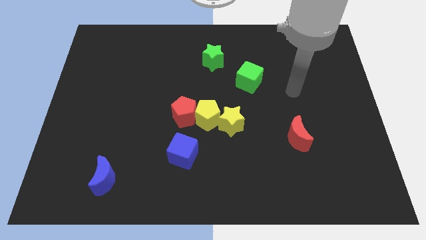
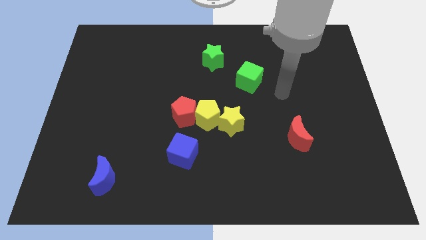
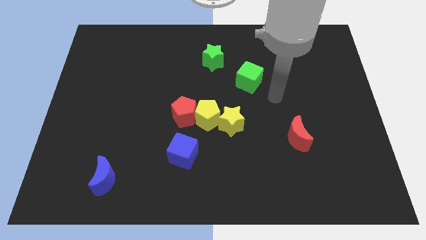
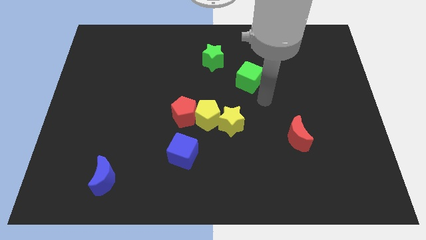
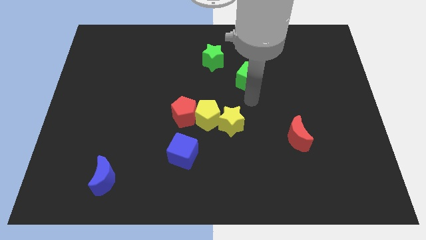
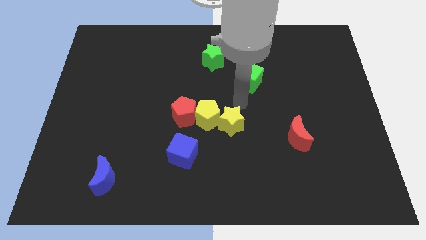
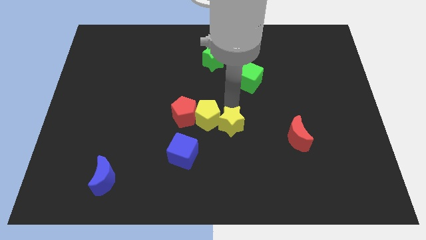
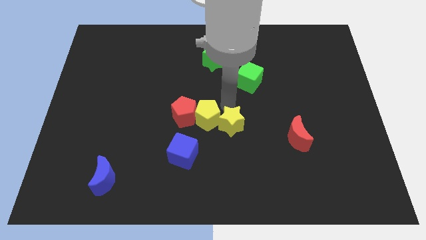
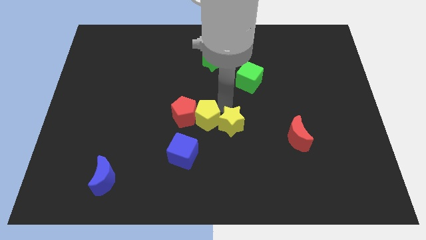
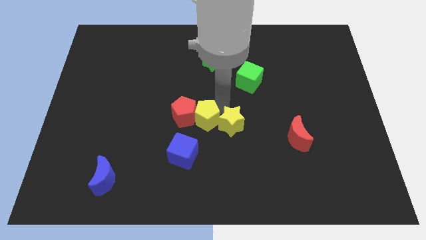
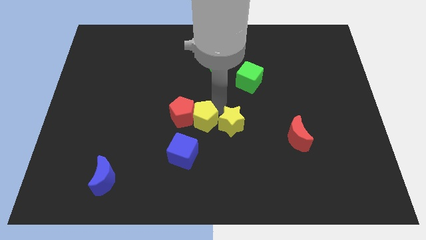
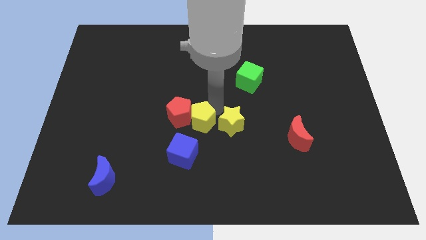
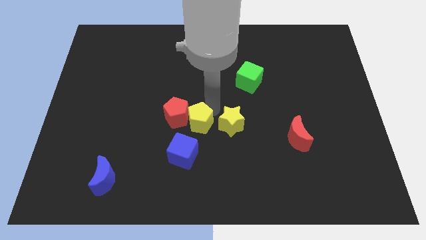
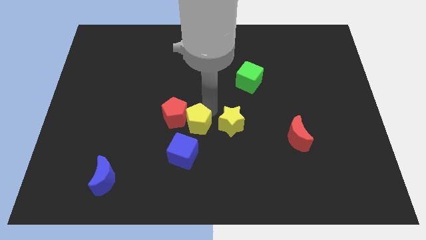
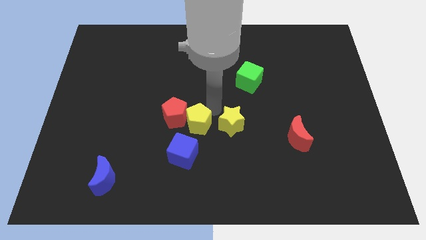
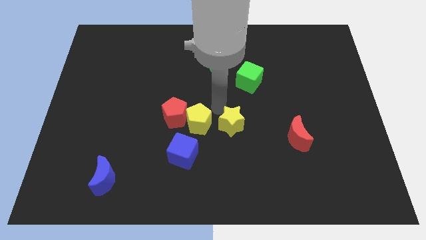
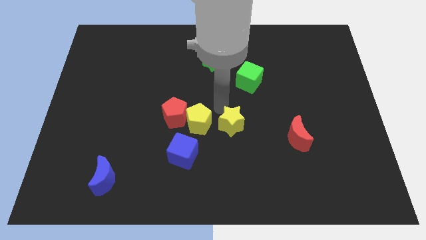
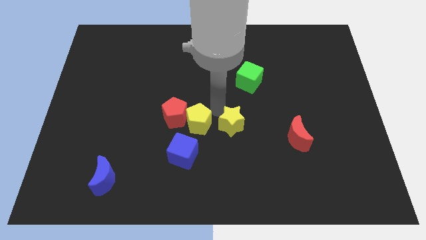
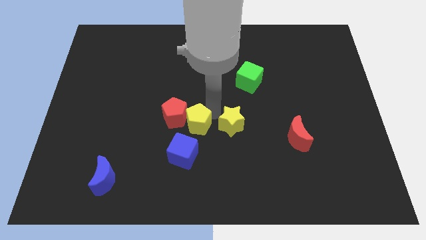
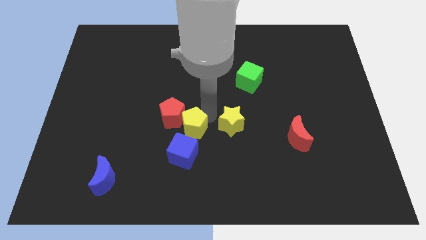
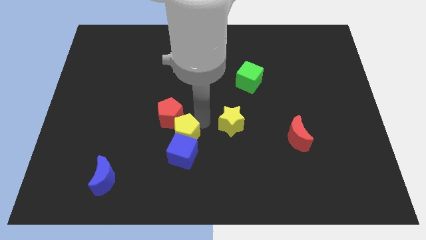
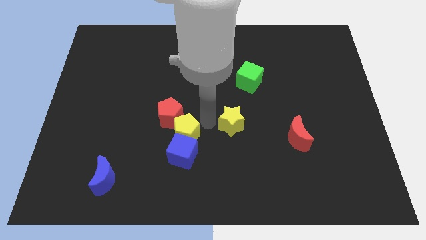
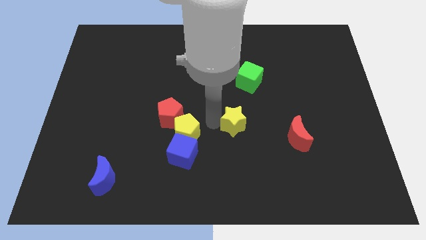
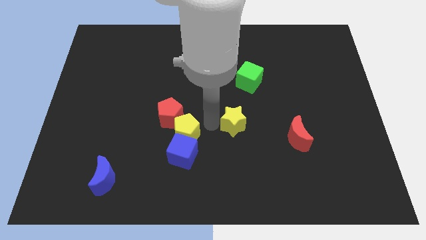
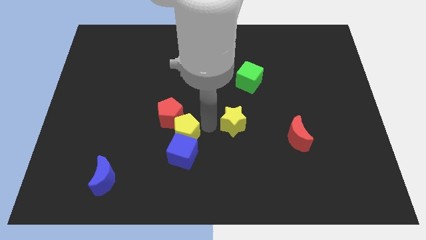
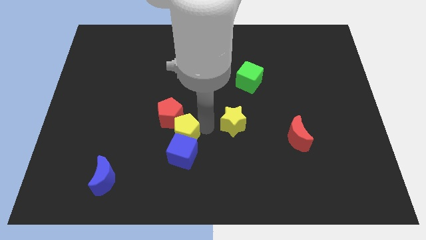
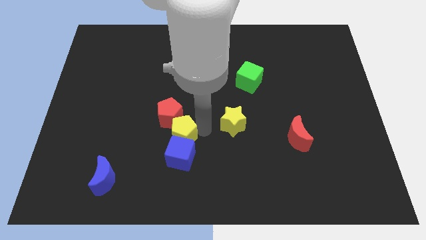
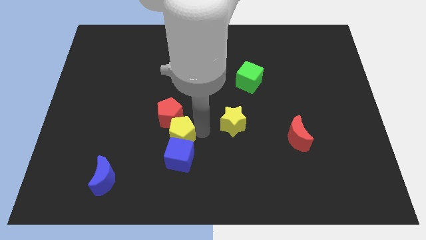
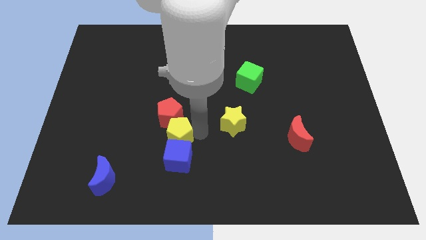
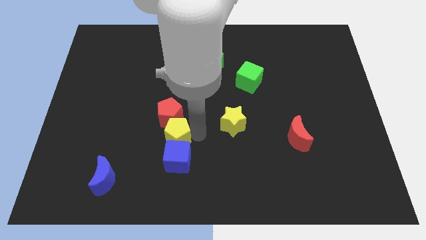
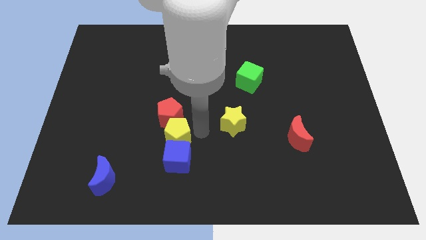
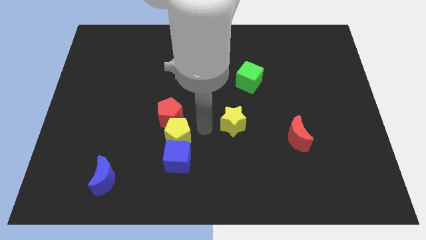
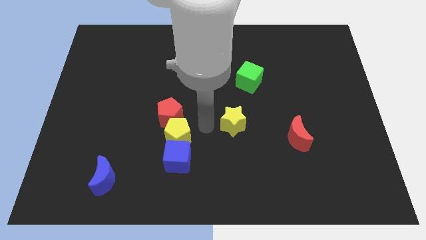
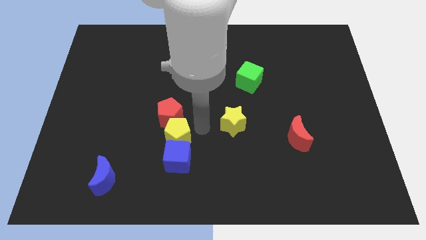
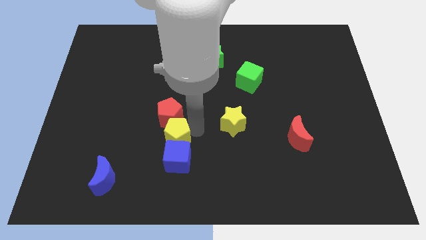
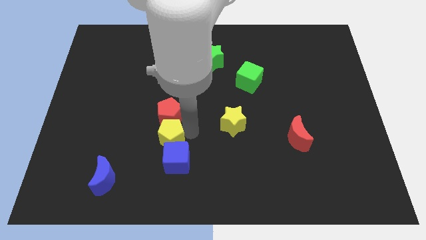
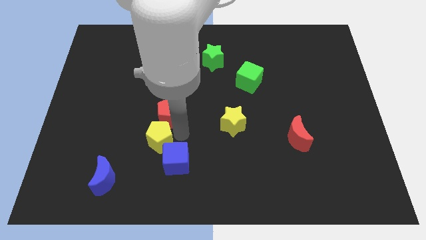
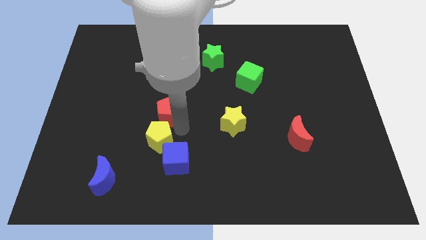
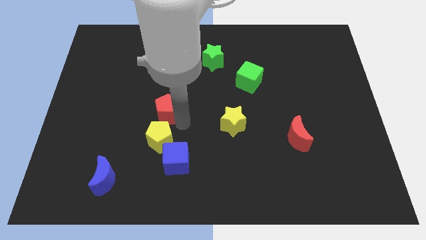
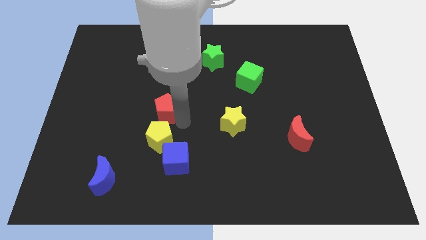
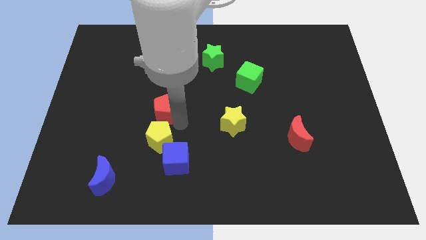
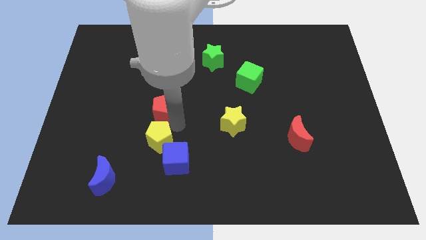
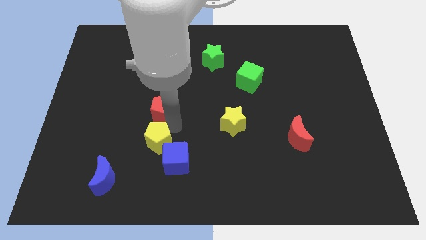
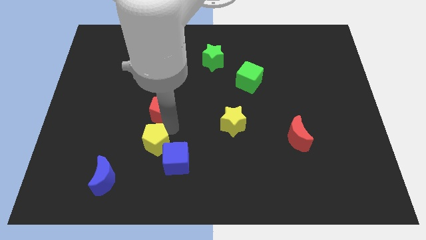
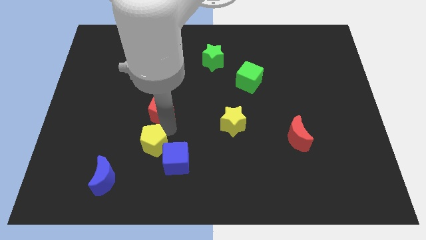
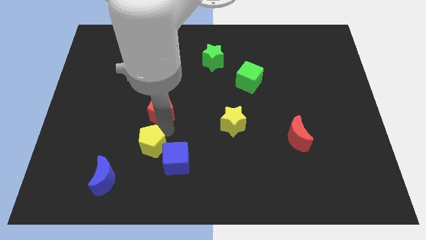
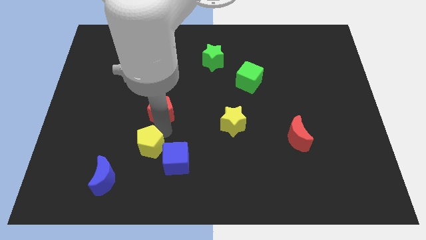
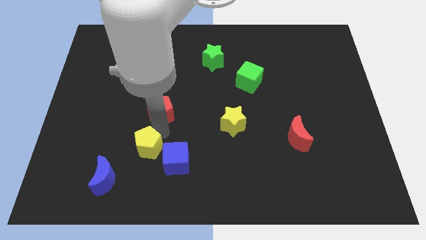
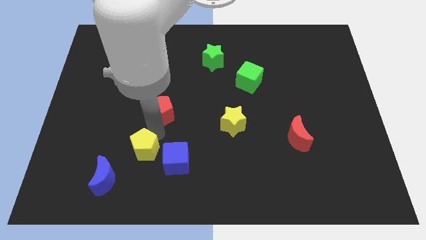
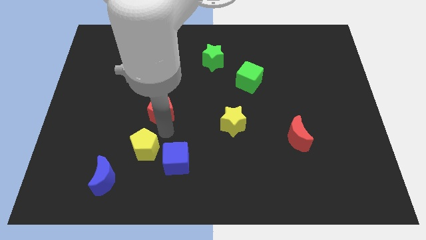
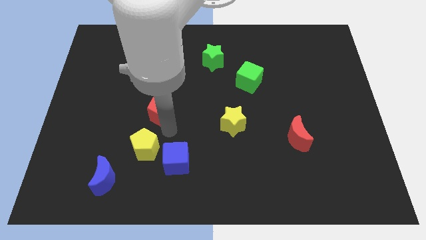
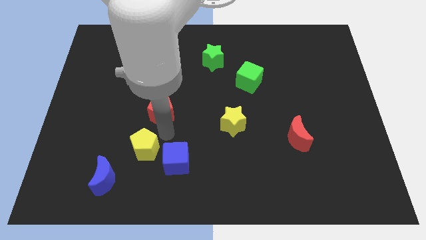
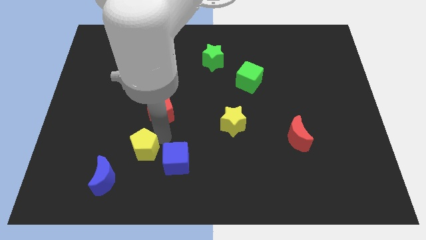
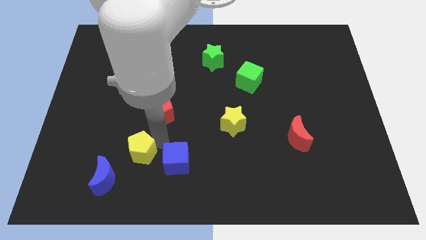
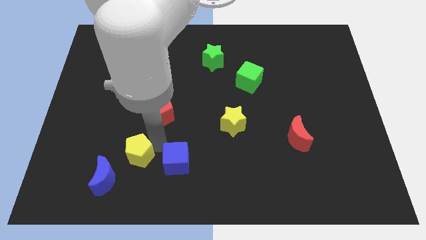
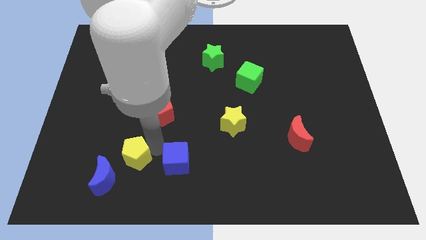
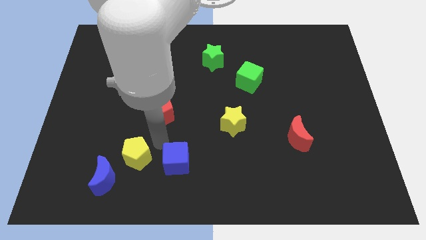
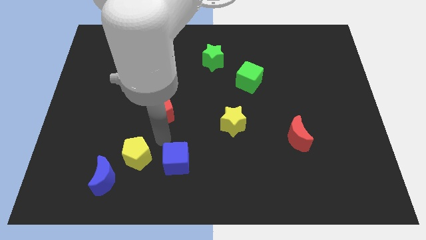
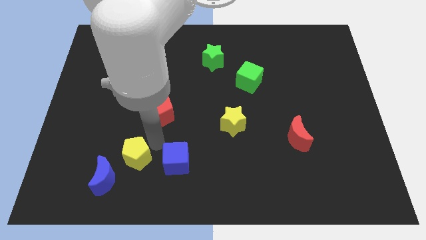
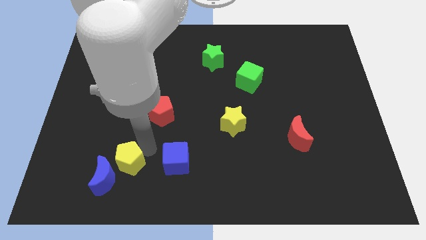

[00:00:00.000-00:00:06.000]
put the yellow pentagon towards the blue moon

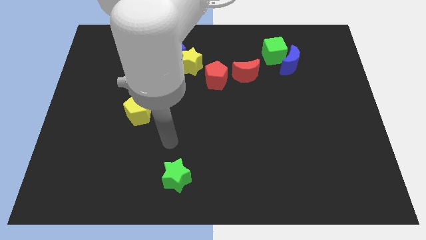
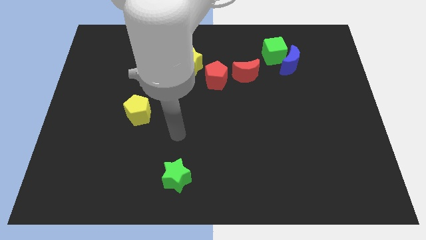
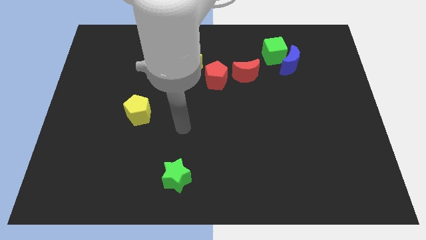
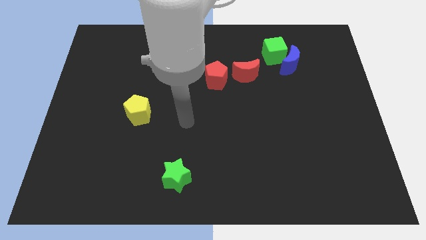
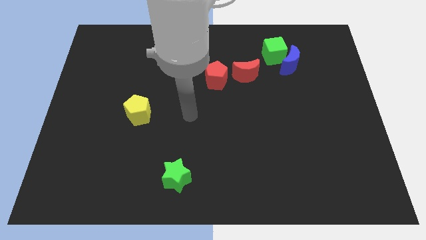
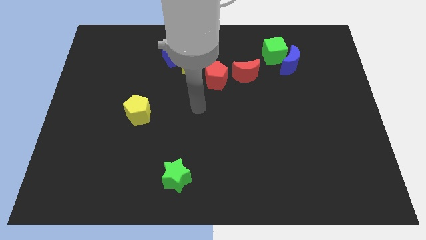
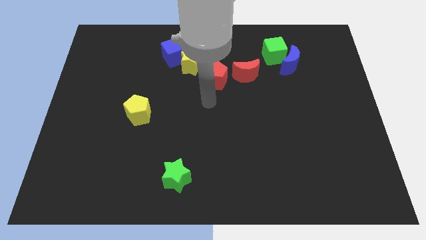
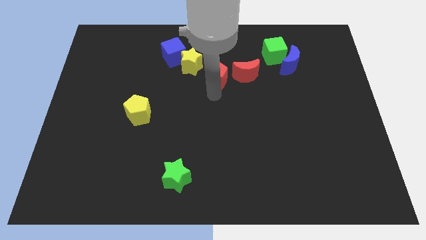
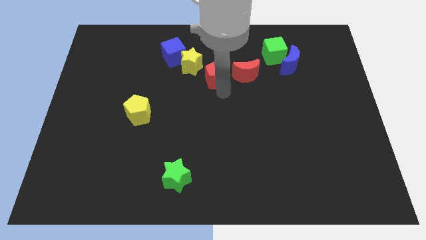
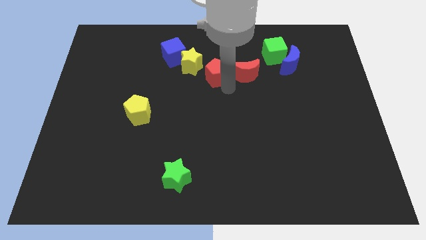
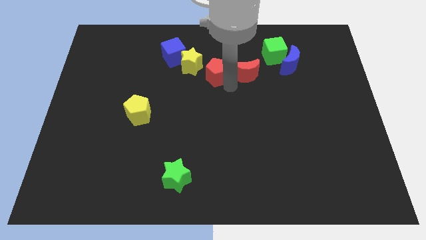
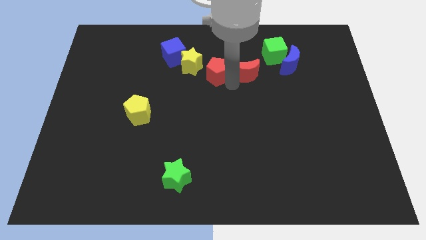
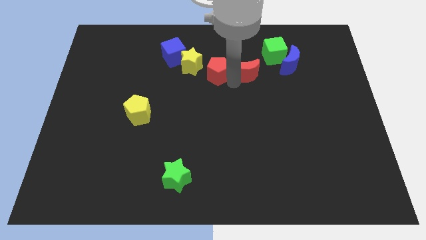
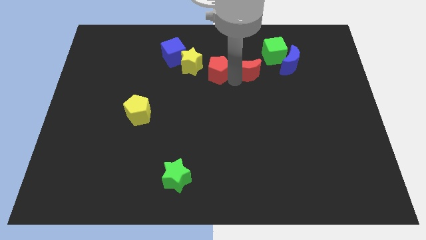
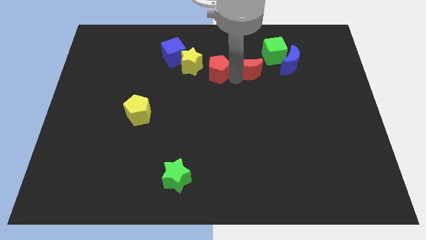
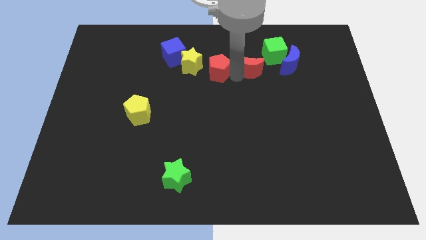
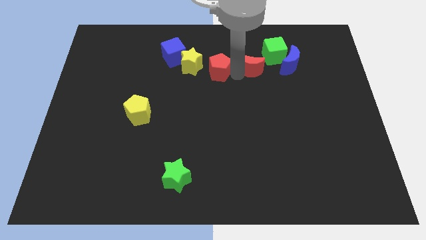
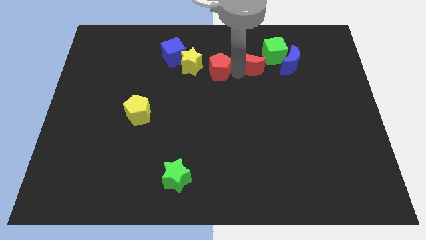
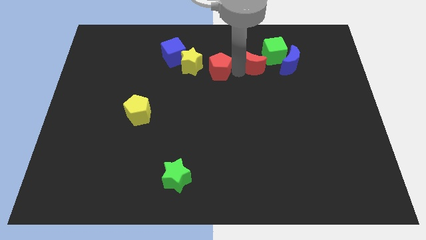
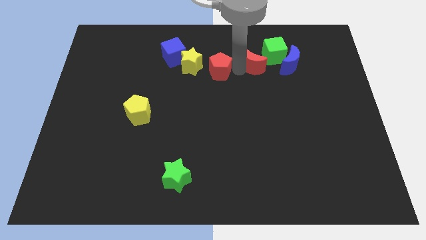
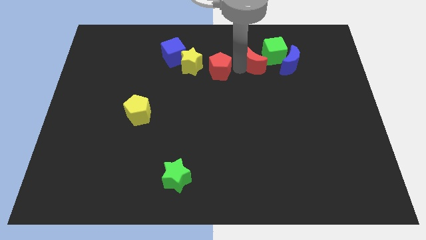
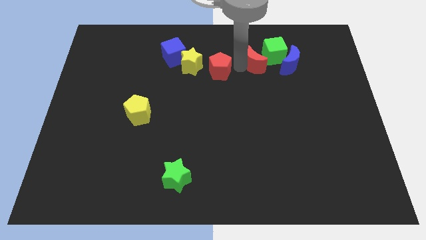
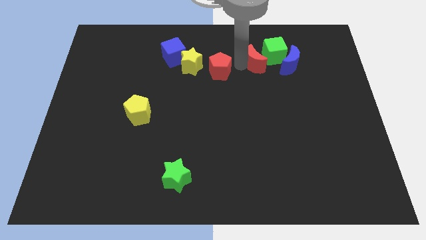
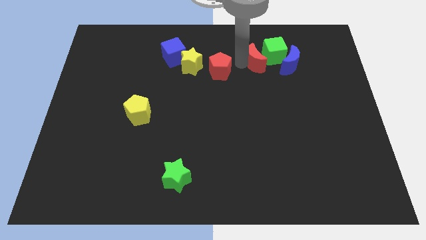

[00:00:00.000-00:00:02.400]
put the red moon to the green cube
